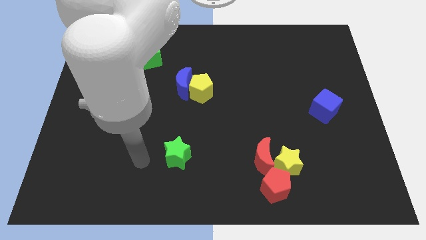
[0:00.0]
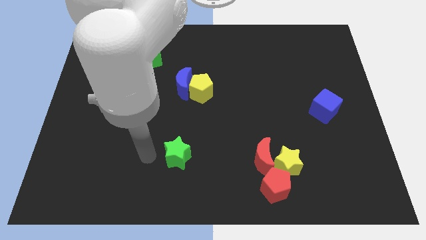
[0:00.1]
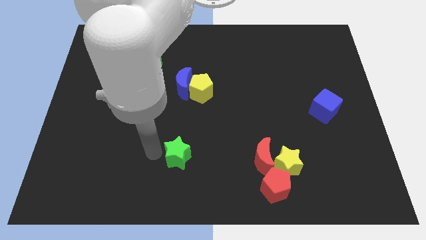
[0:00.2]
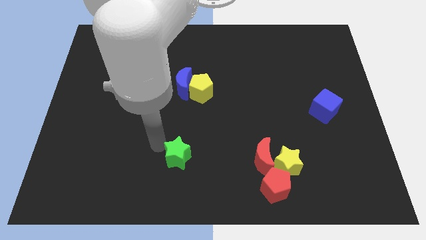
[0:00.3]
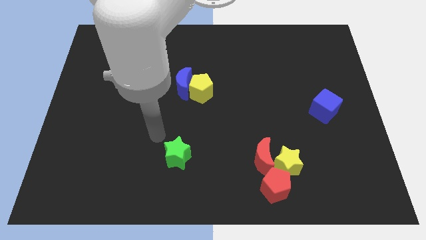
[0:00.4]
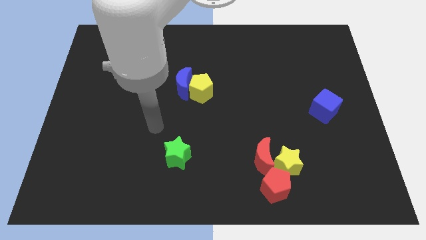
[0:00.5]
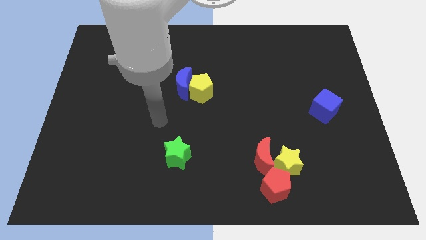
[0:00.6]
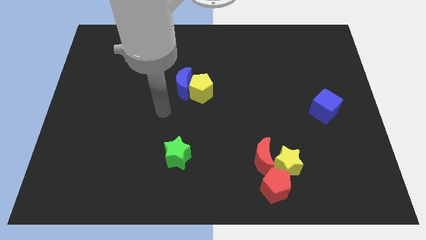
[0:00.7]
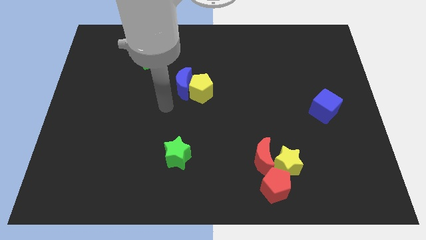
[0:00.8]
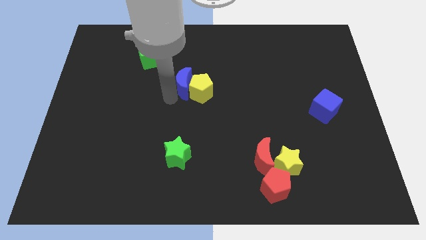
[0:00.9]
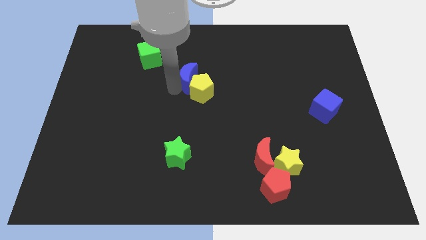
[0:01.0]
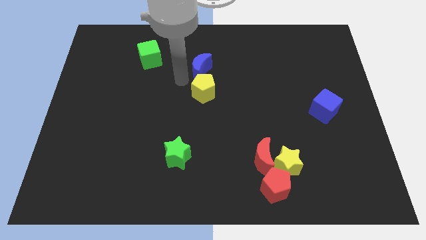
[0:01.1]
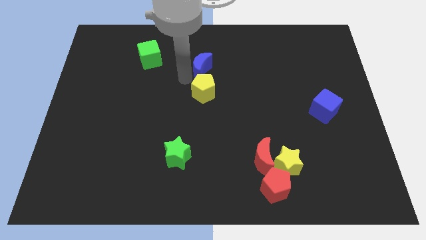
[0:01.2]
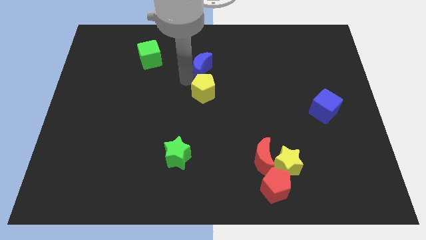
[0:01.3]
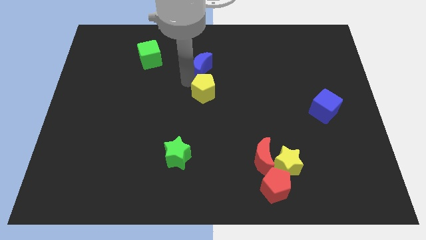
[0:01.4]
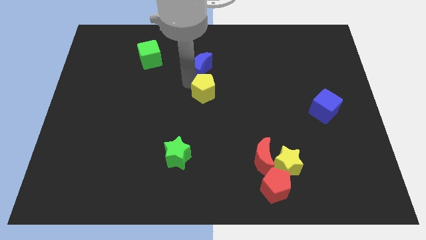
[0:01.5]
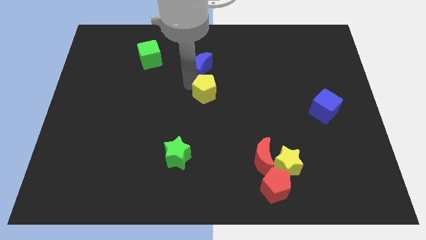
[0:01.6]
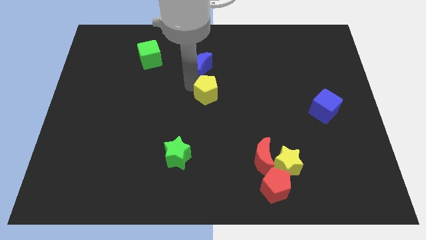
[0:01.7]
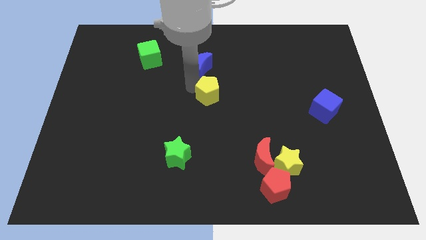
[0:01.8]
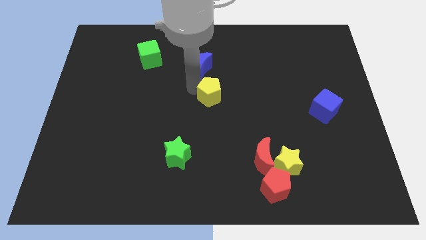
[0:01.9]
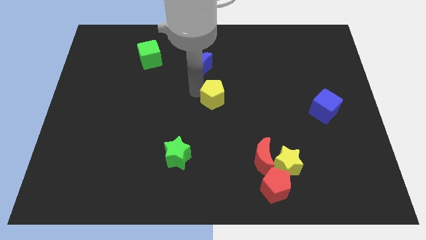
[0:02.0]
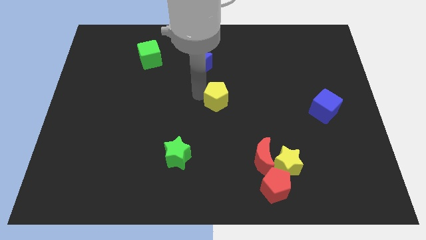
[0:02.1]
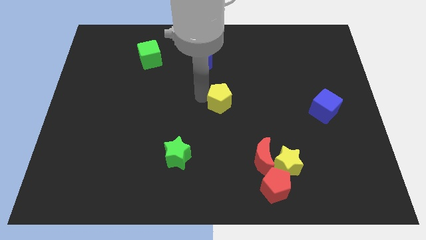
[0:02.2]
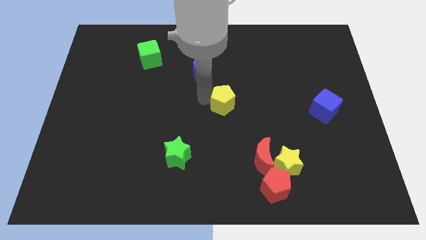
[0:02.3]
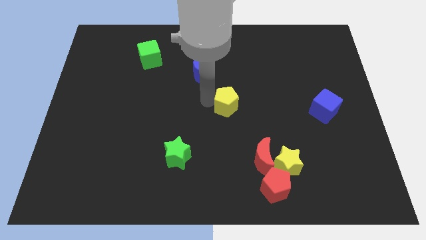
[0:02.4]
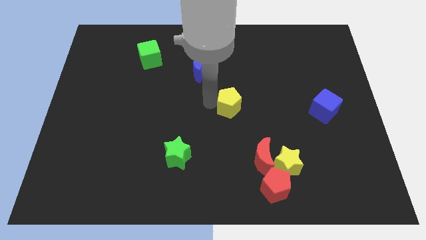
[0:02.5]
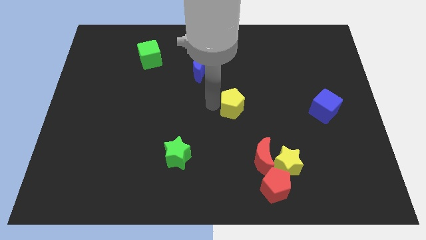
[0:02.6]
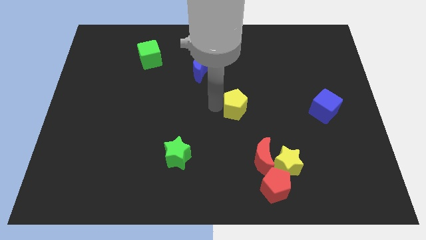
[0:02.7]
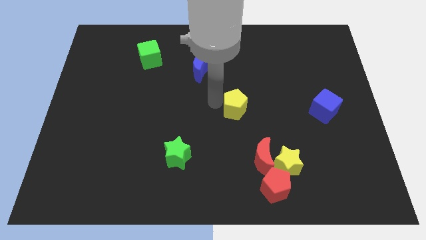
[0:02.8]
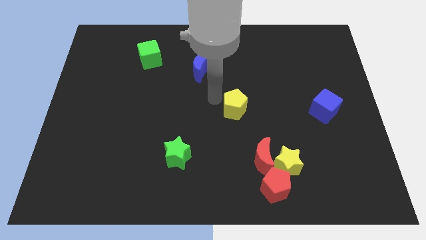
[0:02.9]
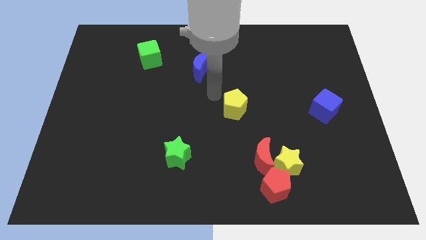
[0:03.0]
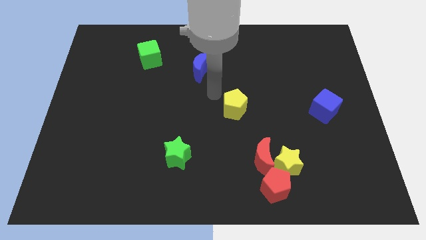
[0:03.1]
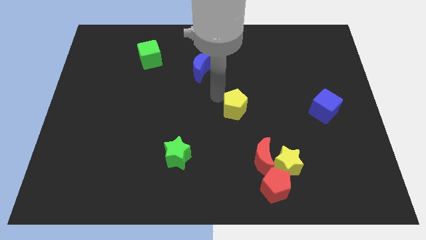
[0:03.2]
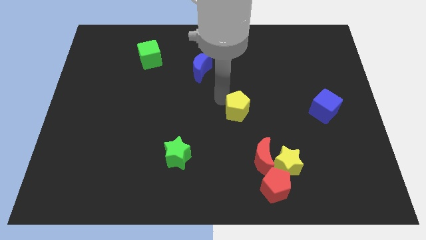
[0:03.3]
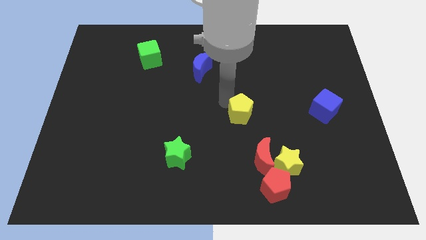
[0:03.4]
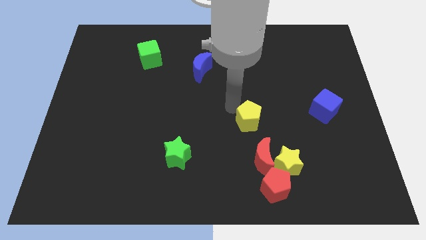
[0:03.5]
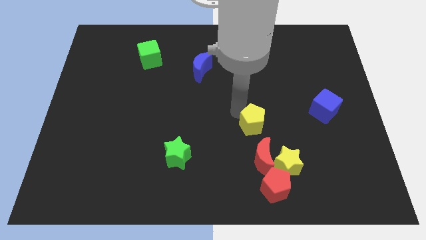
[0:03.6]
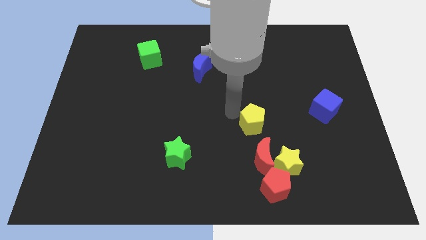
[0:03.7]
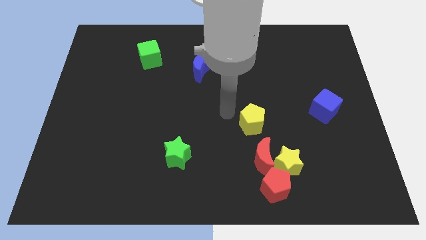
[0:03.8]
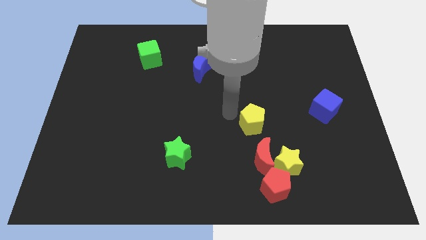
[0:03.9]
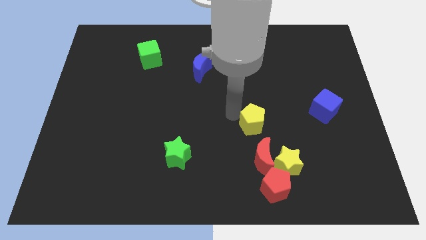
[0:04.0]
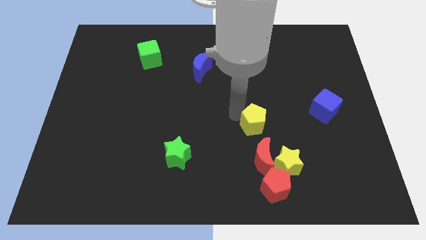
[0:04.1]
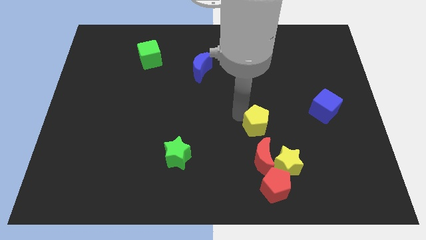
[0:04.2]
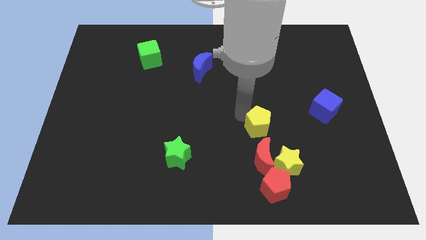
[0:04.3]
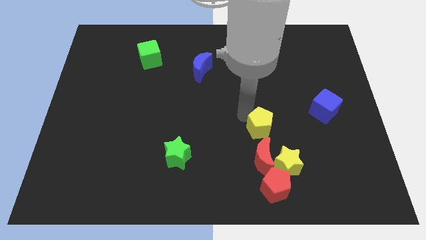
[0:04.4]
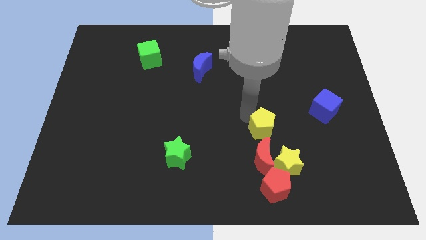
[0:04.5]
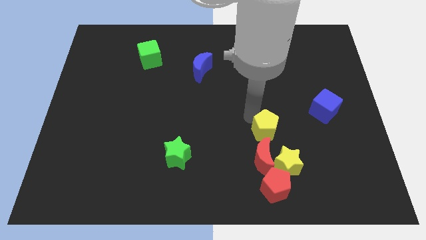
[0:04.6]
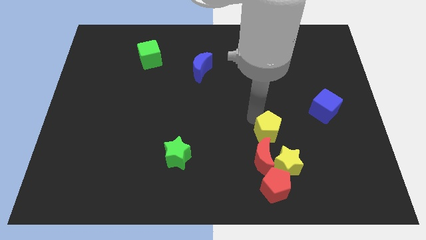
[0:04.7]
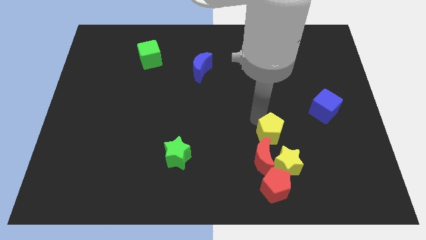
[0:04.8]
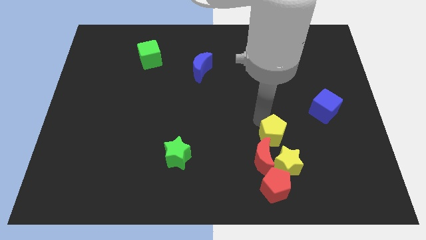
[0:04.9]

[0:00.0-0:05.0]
push the yellow pentagon downwards and to the right diagonally

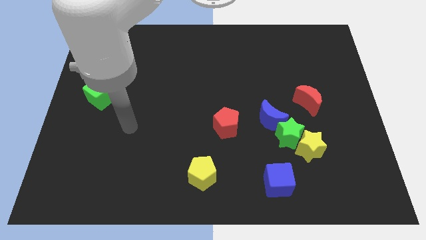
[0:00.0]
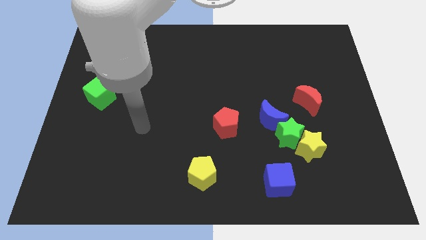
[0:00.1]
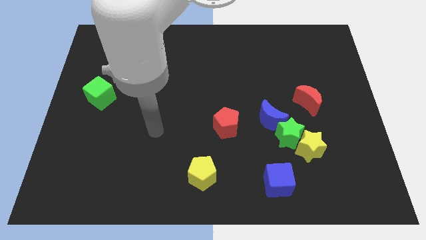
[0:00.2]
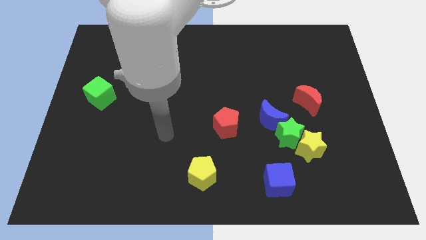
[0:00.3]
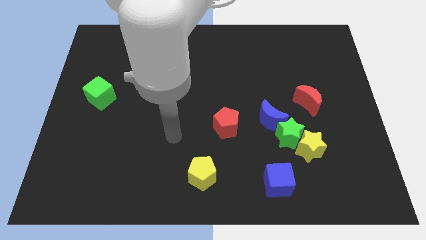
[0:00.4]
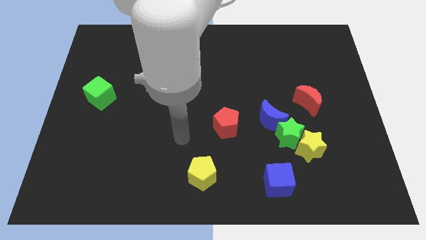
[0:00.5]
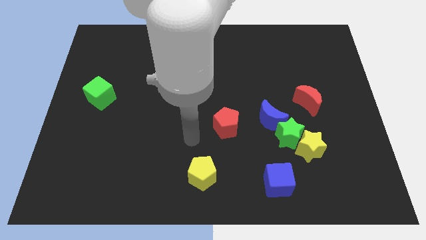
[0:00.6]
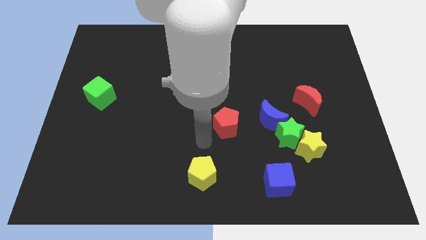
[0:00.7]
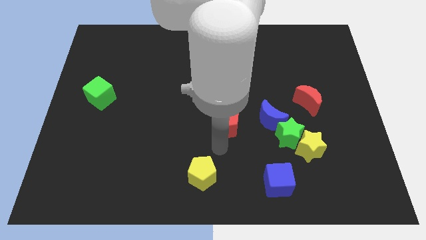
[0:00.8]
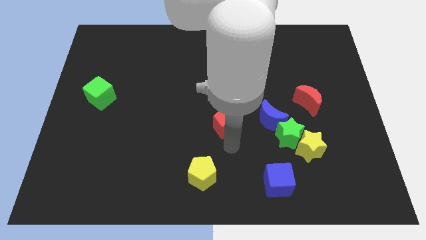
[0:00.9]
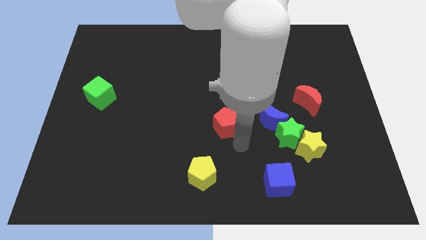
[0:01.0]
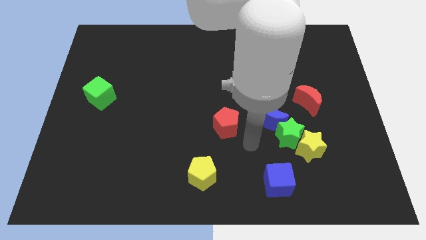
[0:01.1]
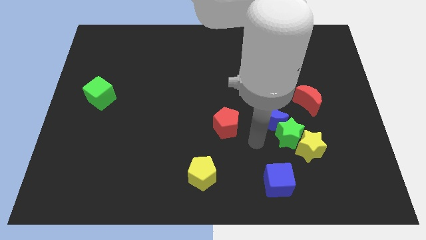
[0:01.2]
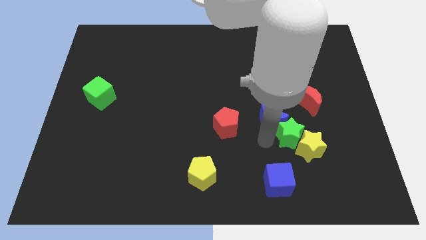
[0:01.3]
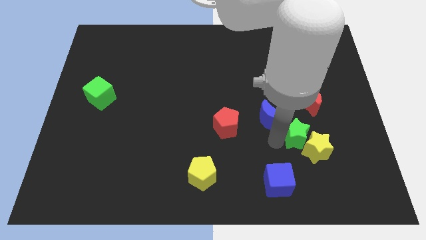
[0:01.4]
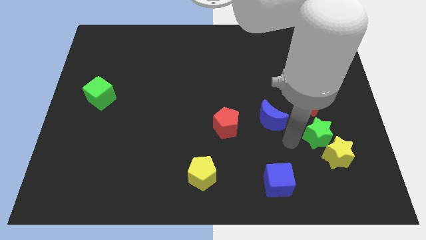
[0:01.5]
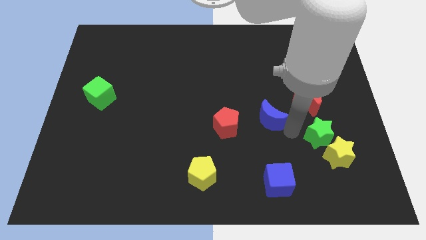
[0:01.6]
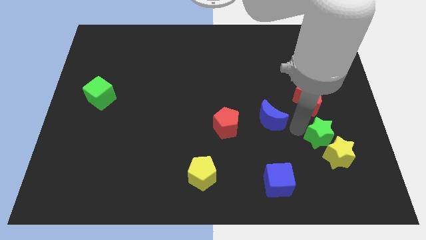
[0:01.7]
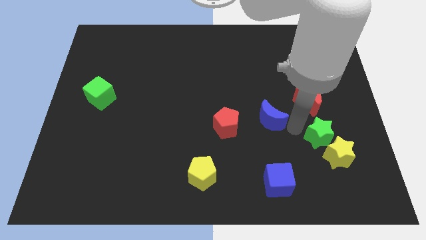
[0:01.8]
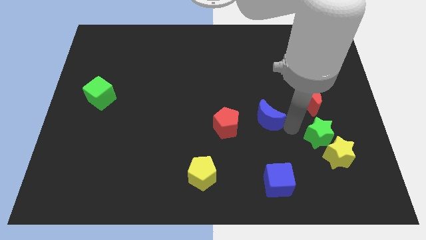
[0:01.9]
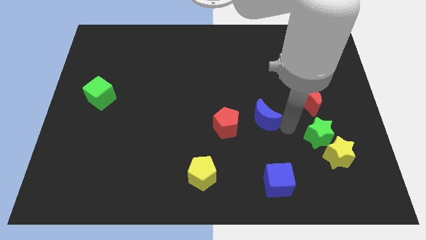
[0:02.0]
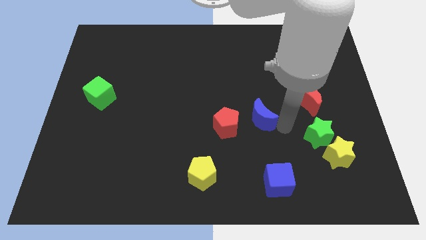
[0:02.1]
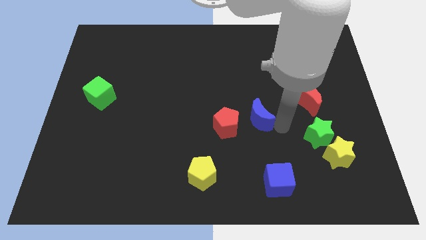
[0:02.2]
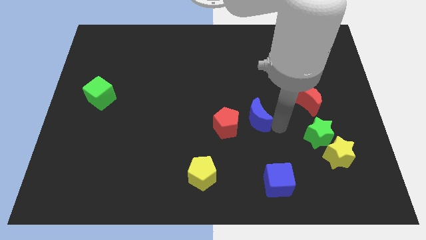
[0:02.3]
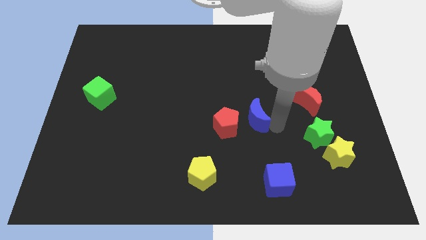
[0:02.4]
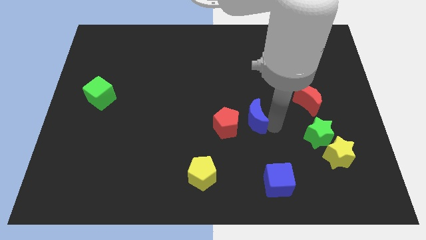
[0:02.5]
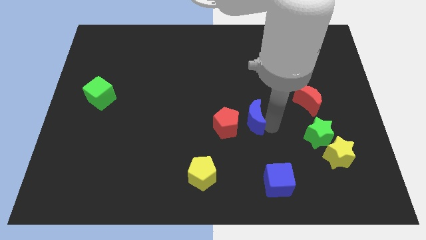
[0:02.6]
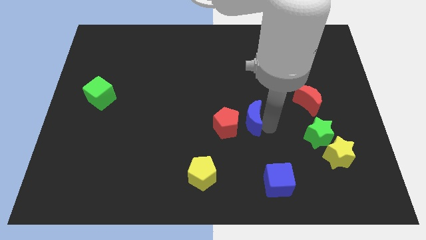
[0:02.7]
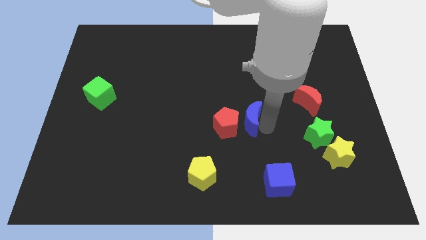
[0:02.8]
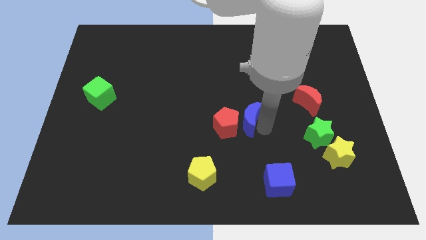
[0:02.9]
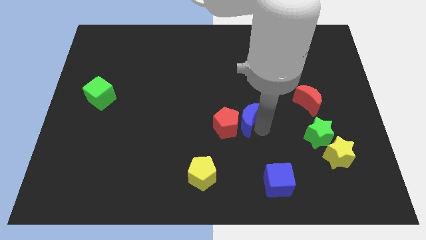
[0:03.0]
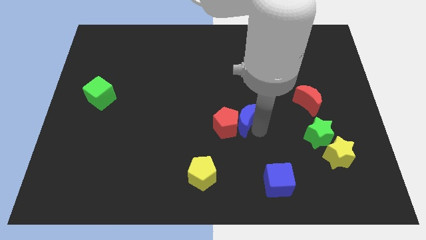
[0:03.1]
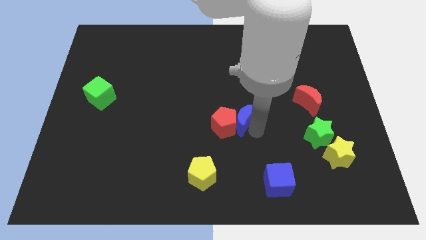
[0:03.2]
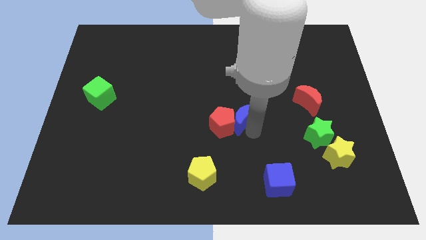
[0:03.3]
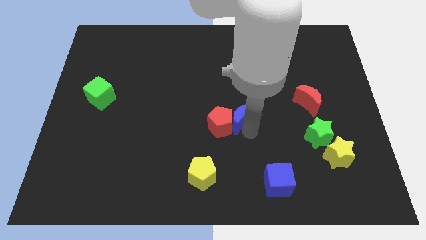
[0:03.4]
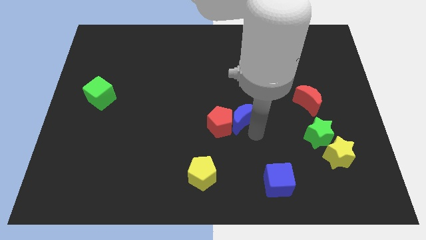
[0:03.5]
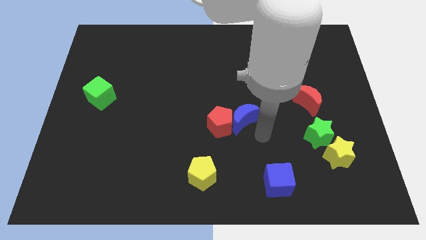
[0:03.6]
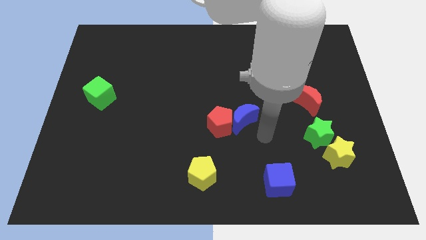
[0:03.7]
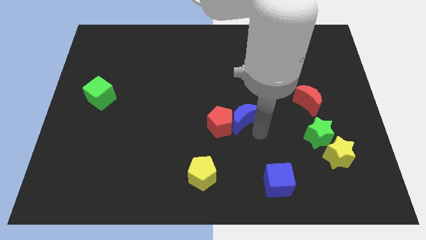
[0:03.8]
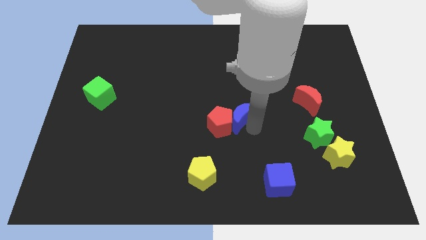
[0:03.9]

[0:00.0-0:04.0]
slightly move the blue moon left
